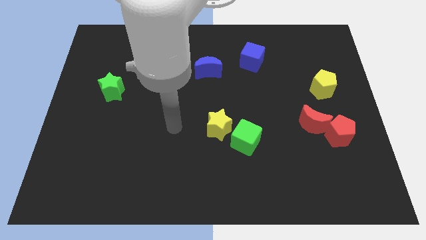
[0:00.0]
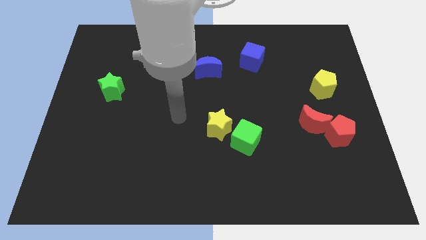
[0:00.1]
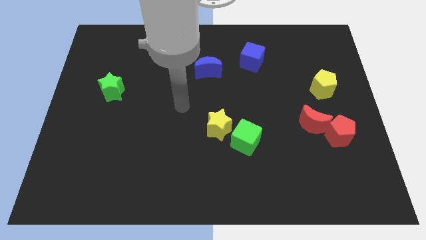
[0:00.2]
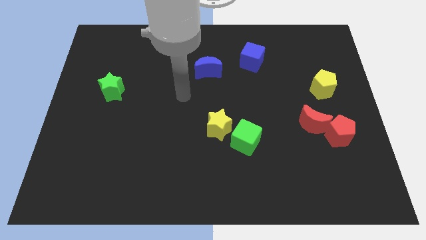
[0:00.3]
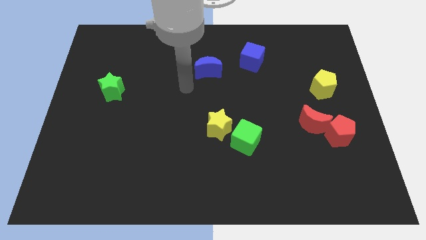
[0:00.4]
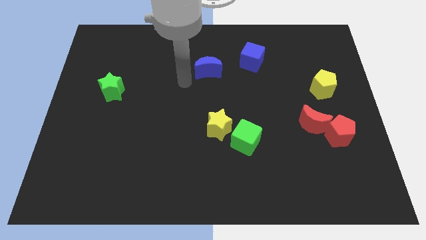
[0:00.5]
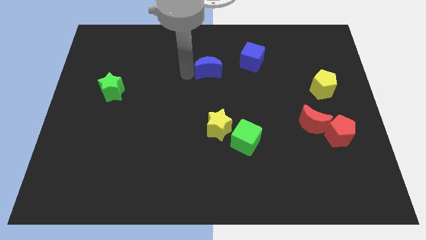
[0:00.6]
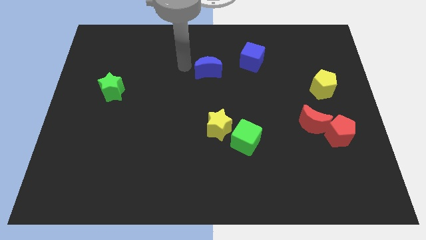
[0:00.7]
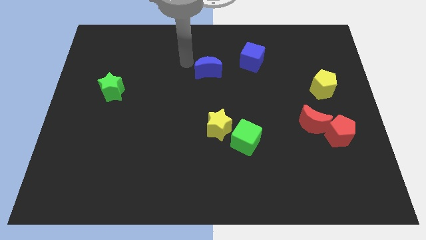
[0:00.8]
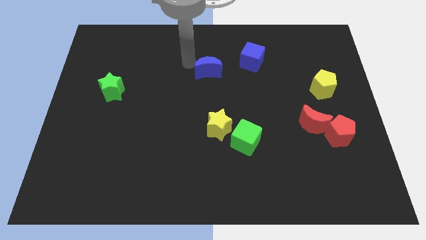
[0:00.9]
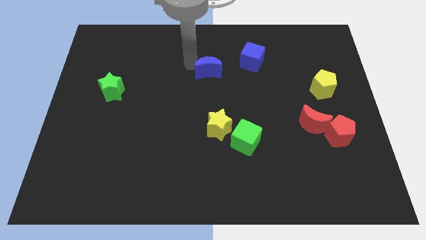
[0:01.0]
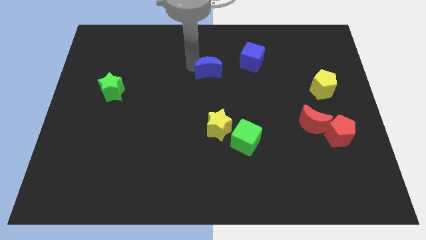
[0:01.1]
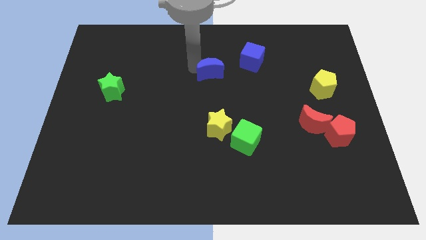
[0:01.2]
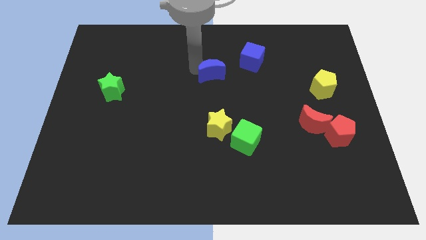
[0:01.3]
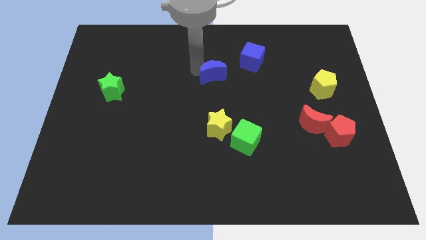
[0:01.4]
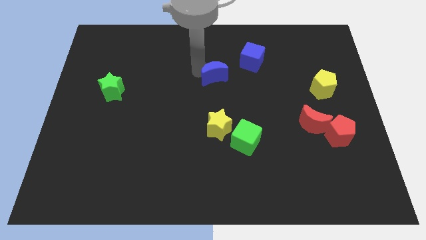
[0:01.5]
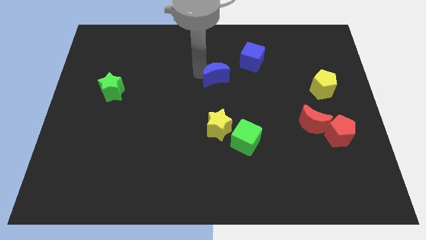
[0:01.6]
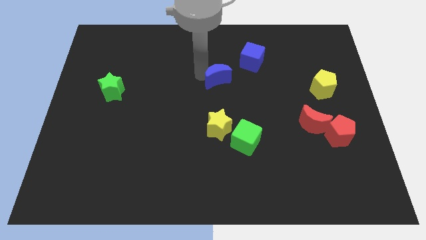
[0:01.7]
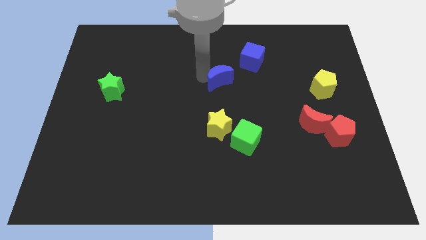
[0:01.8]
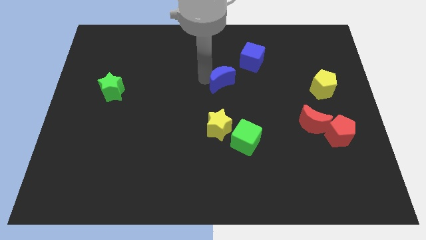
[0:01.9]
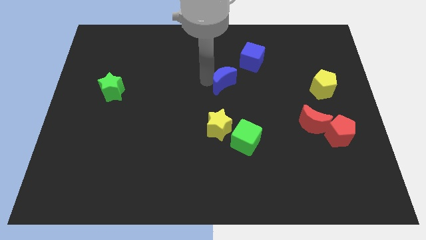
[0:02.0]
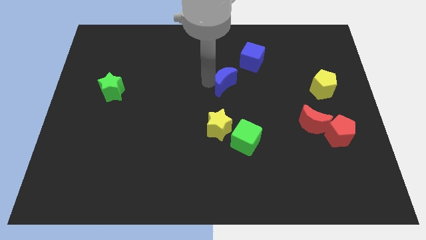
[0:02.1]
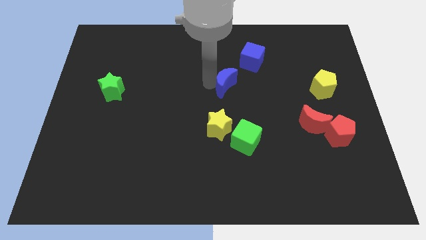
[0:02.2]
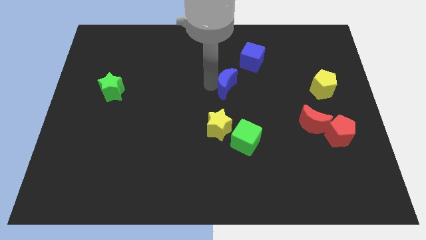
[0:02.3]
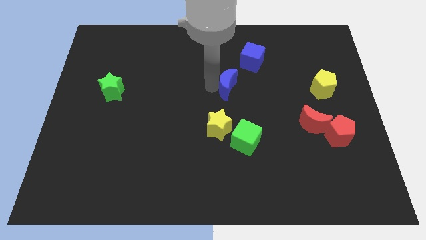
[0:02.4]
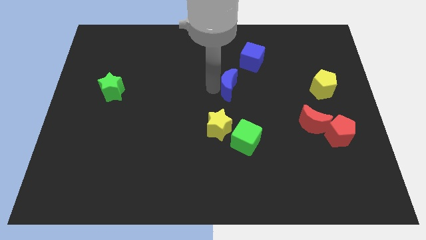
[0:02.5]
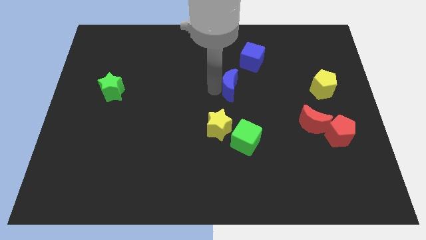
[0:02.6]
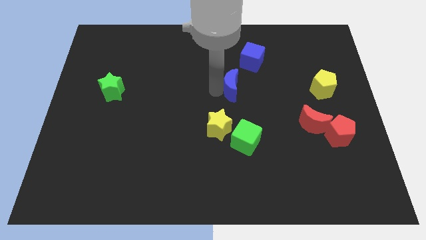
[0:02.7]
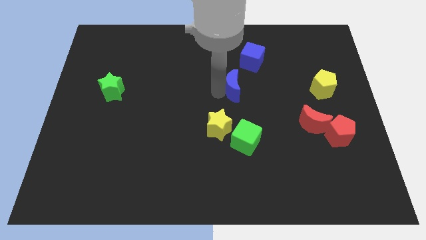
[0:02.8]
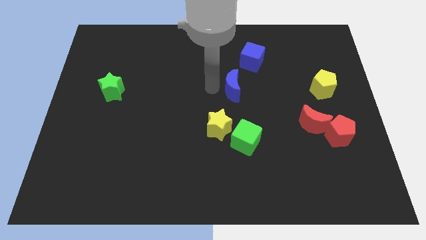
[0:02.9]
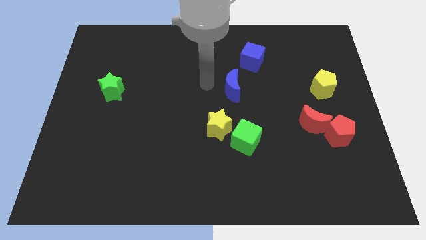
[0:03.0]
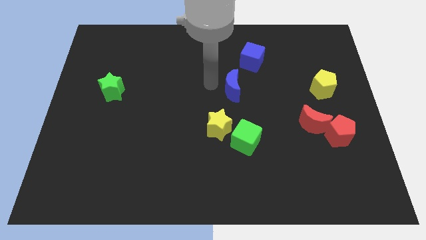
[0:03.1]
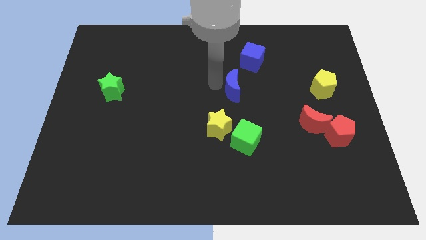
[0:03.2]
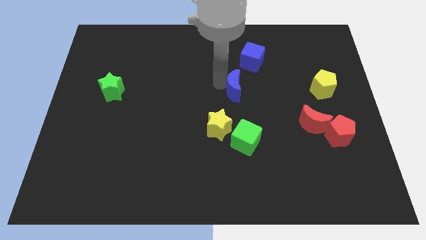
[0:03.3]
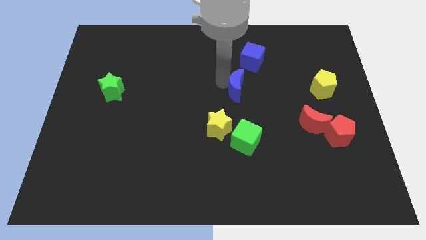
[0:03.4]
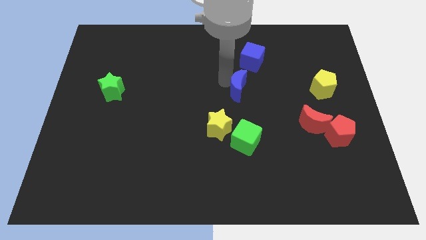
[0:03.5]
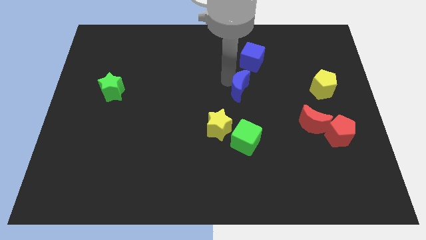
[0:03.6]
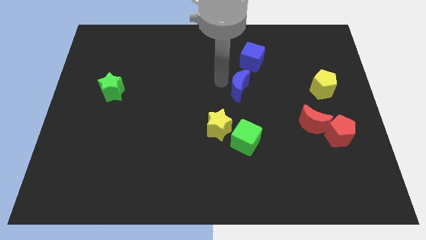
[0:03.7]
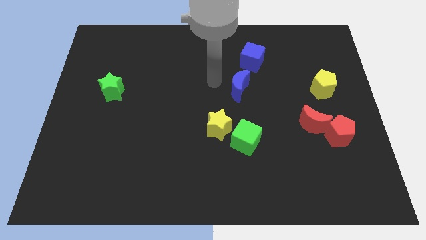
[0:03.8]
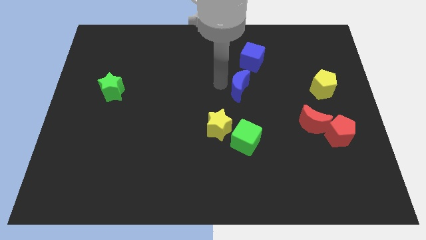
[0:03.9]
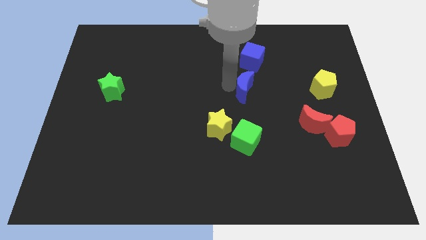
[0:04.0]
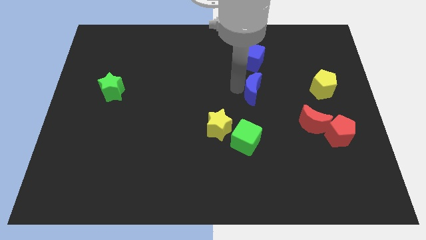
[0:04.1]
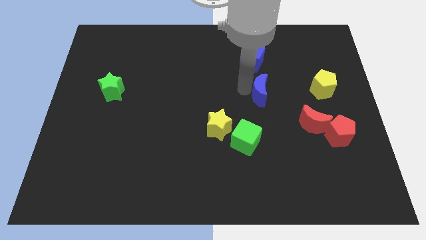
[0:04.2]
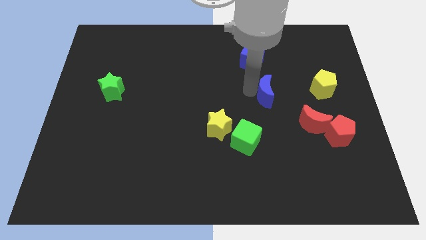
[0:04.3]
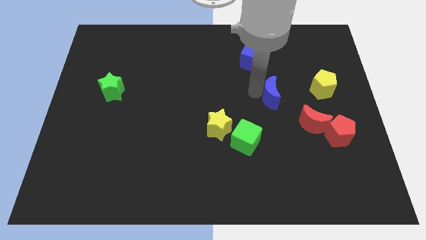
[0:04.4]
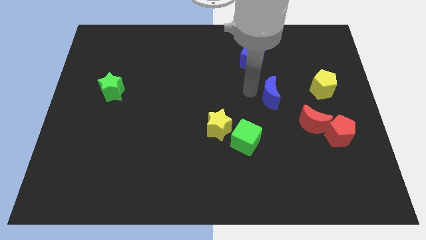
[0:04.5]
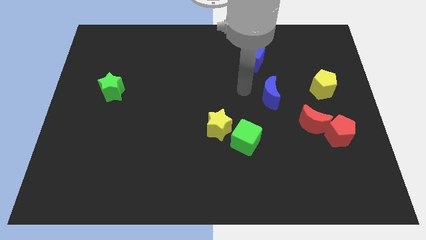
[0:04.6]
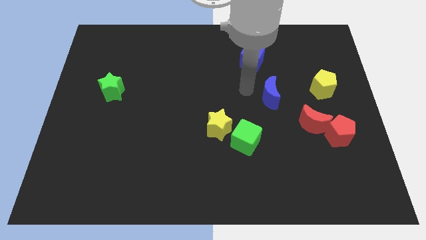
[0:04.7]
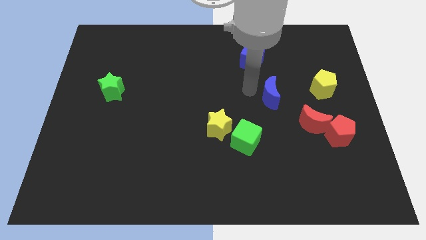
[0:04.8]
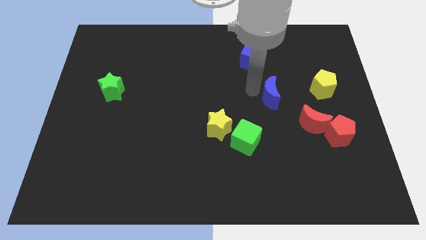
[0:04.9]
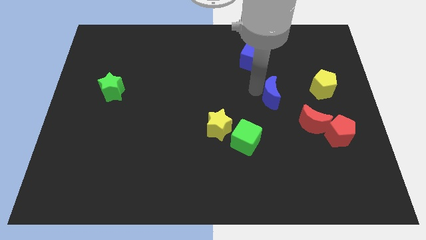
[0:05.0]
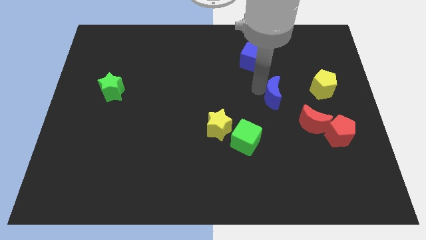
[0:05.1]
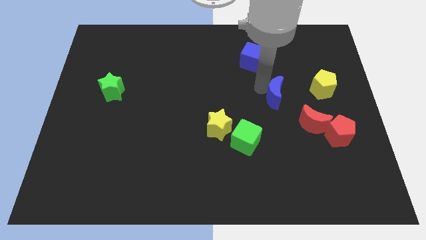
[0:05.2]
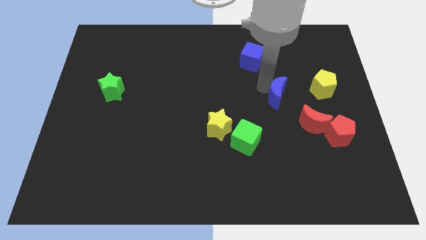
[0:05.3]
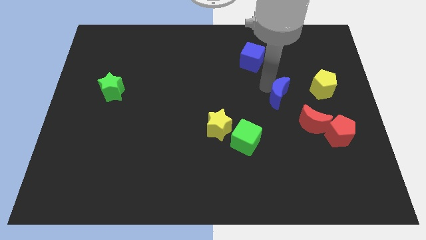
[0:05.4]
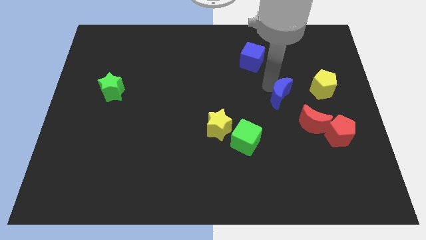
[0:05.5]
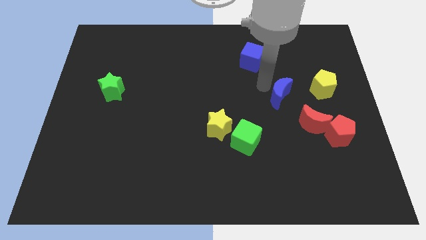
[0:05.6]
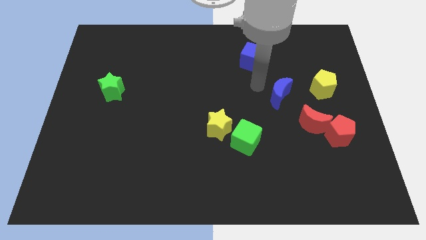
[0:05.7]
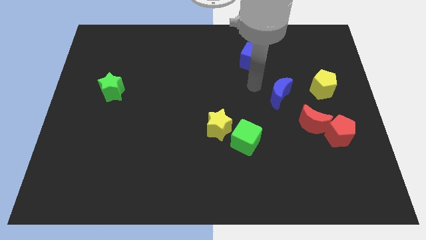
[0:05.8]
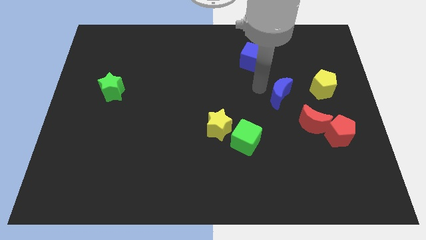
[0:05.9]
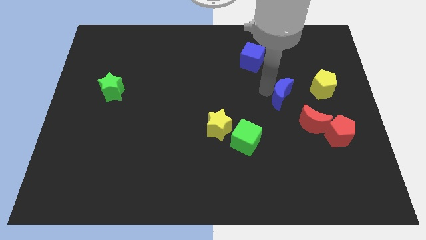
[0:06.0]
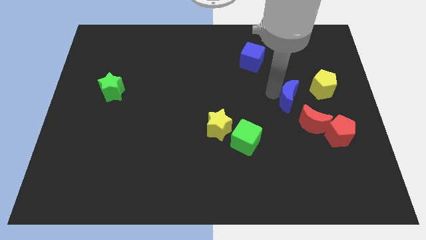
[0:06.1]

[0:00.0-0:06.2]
put the blue moon diagonally down and to the left of the yellow pentagon
